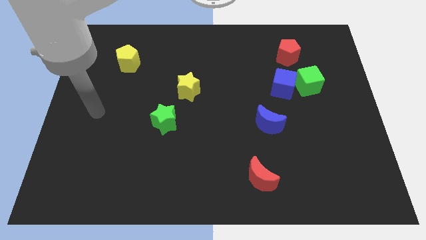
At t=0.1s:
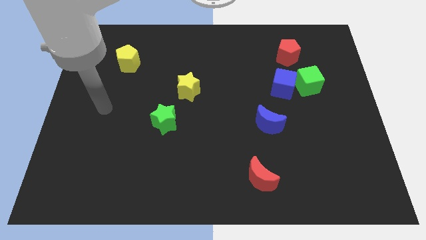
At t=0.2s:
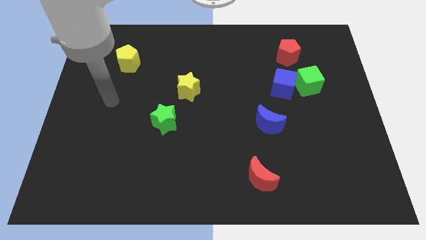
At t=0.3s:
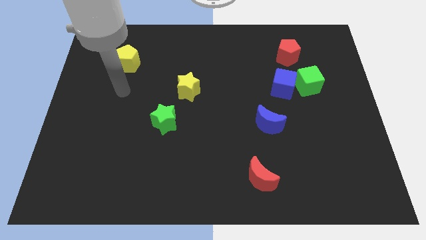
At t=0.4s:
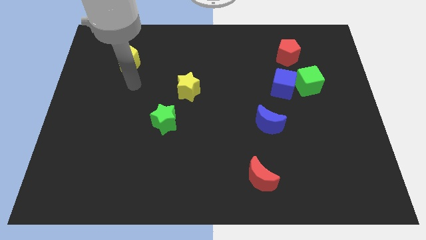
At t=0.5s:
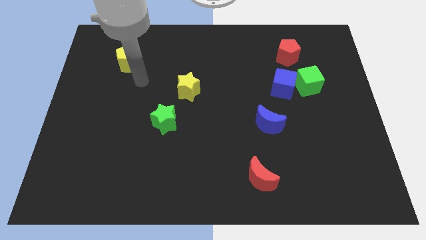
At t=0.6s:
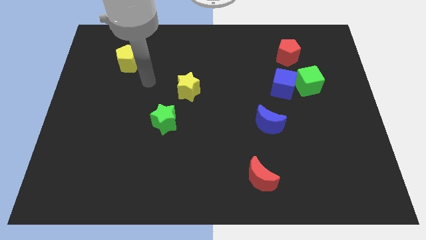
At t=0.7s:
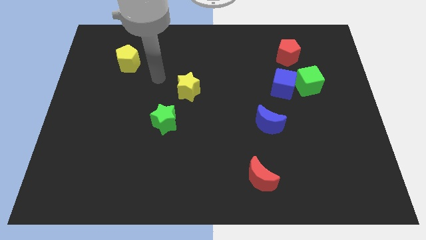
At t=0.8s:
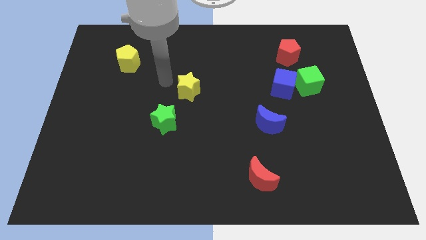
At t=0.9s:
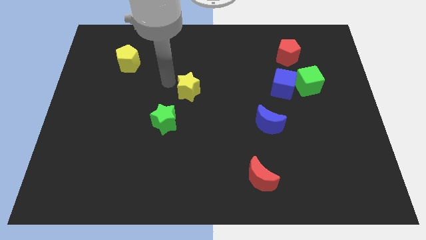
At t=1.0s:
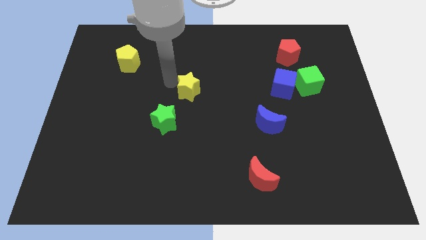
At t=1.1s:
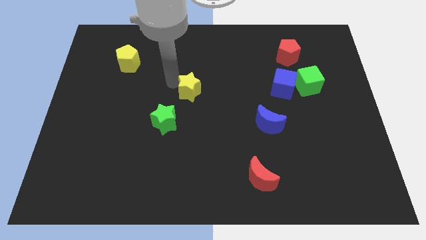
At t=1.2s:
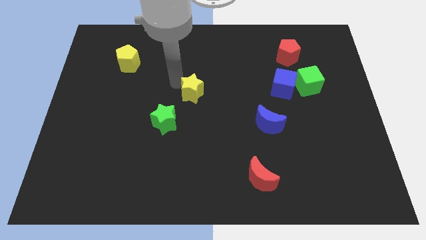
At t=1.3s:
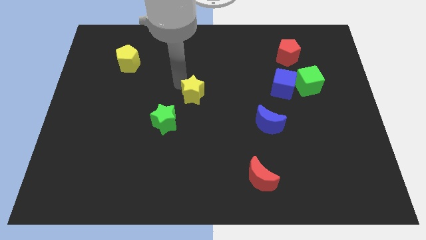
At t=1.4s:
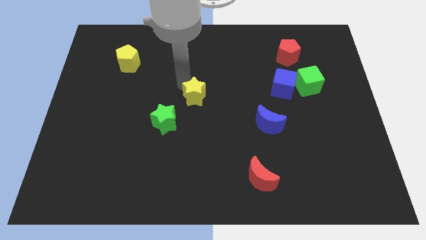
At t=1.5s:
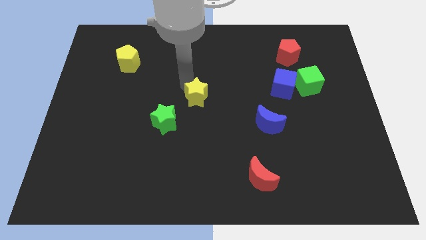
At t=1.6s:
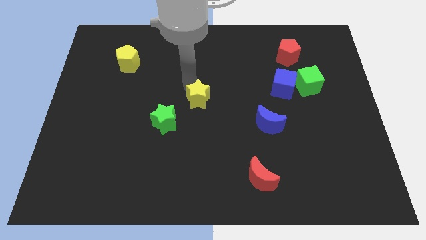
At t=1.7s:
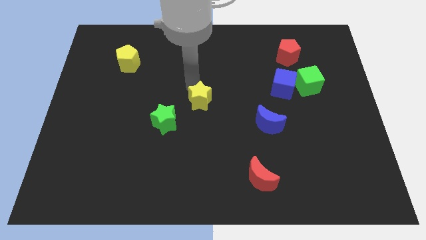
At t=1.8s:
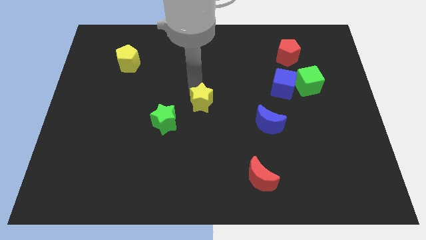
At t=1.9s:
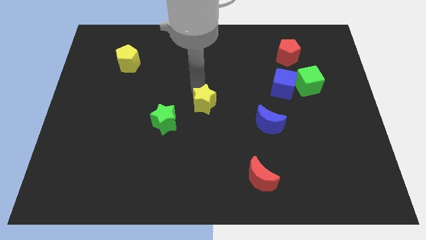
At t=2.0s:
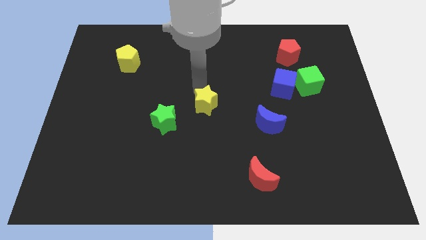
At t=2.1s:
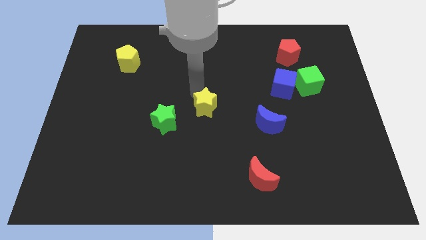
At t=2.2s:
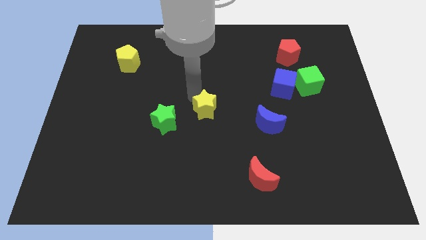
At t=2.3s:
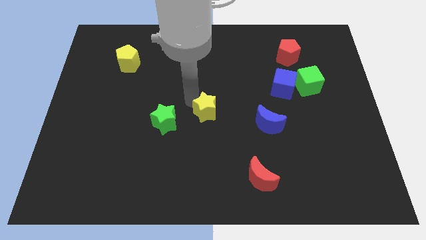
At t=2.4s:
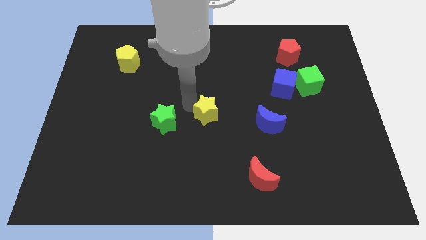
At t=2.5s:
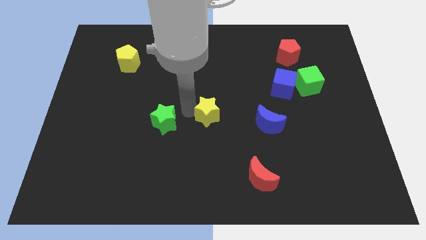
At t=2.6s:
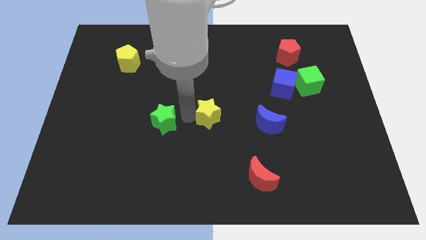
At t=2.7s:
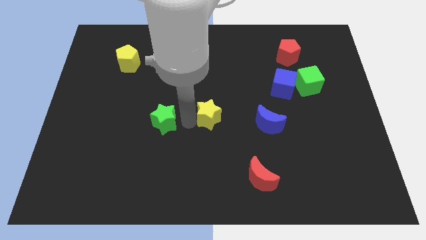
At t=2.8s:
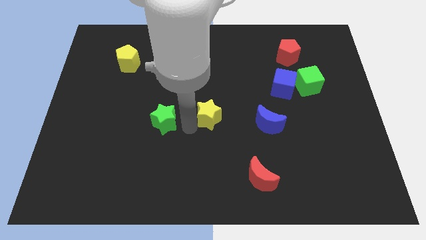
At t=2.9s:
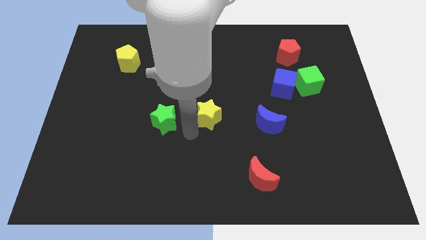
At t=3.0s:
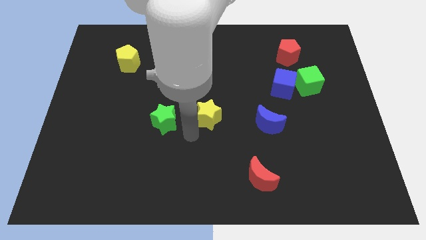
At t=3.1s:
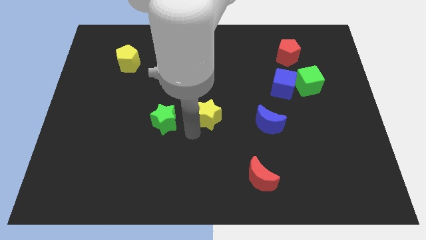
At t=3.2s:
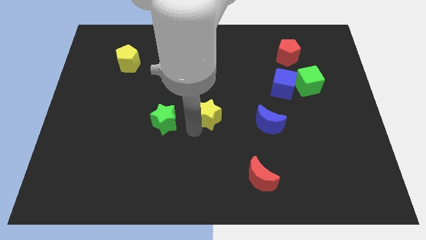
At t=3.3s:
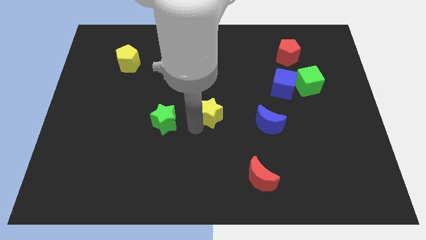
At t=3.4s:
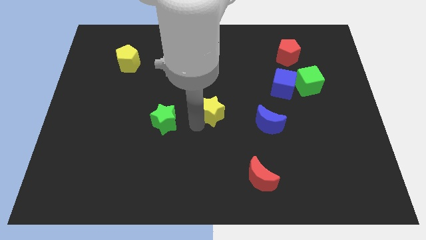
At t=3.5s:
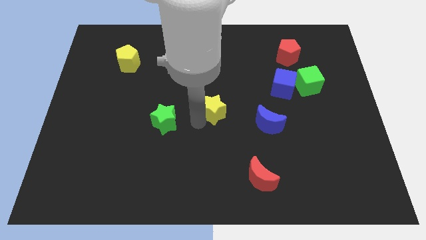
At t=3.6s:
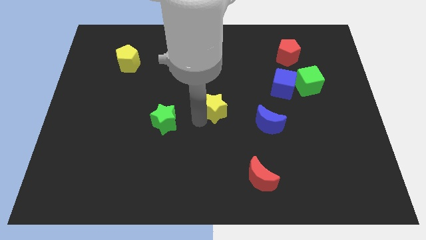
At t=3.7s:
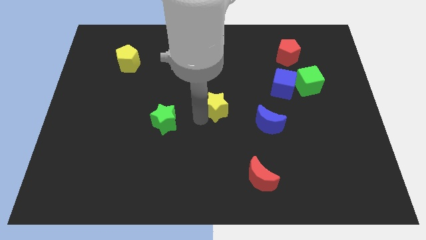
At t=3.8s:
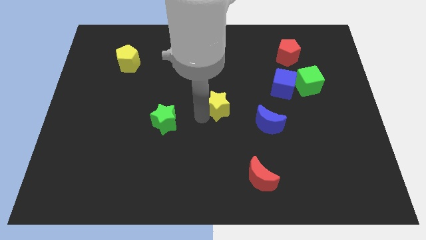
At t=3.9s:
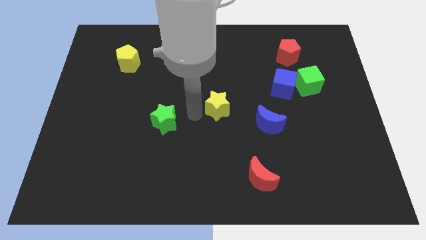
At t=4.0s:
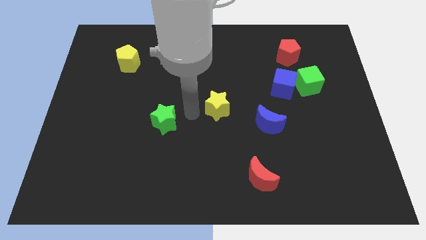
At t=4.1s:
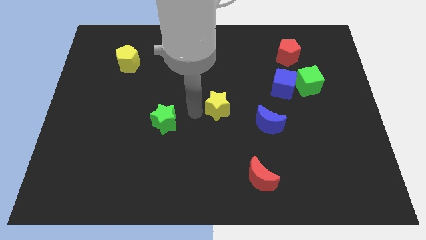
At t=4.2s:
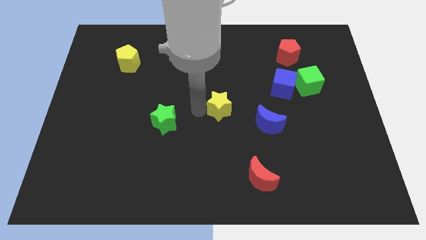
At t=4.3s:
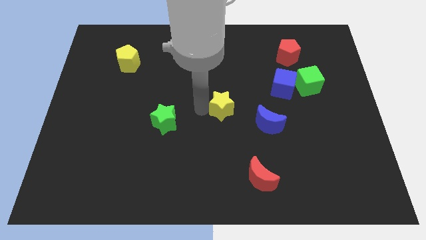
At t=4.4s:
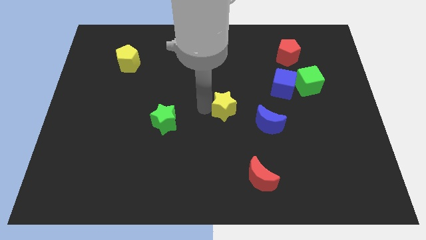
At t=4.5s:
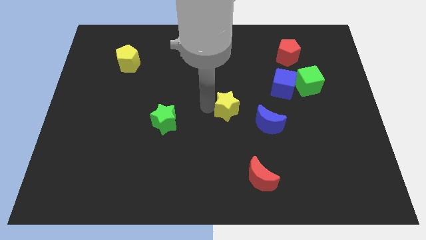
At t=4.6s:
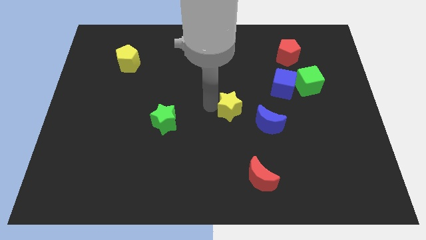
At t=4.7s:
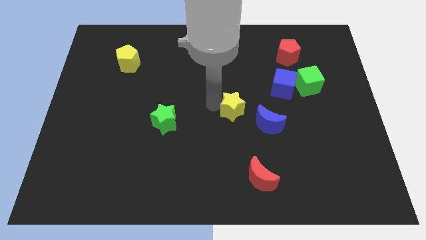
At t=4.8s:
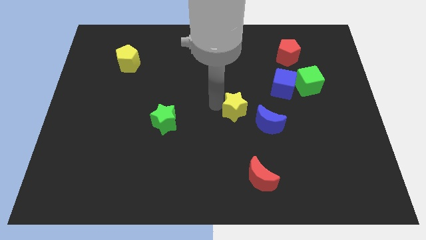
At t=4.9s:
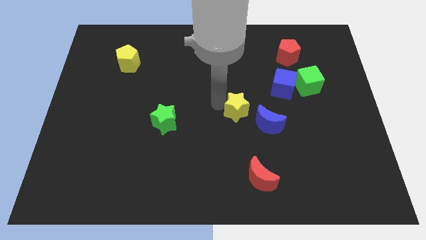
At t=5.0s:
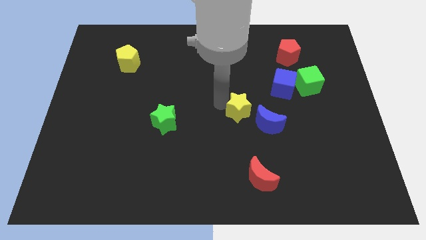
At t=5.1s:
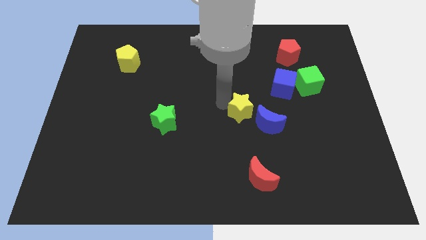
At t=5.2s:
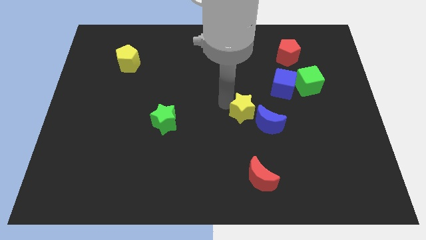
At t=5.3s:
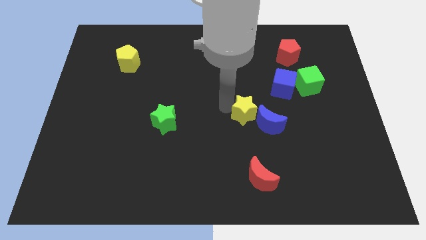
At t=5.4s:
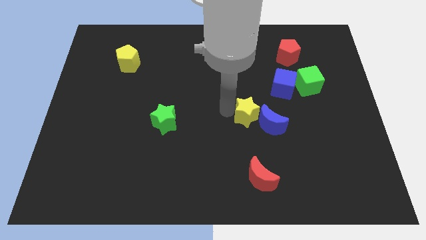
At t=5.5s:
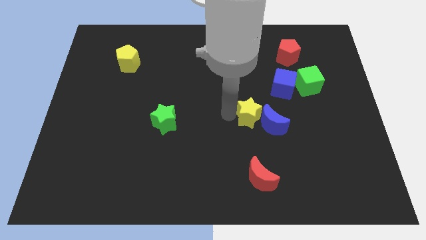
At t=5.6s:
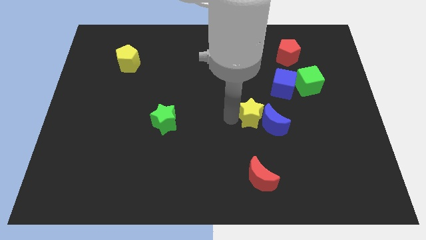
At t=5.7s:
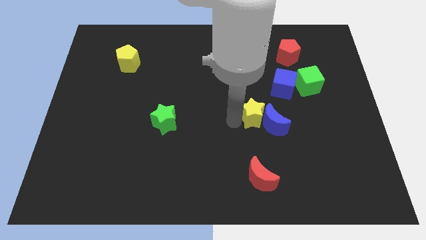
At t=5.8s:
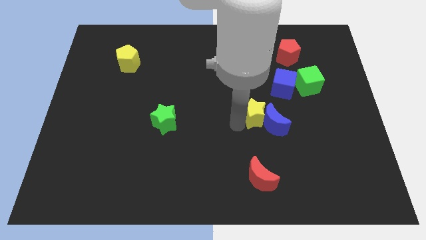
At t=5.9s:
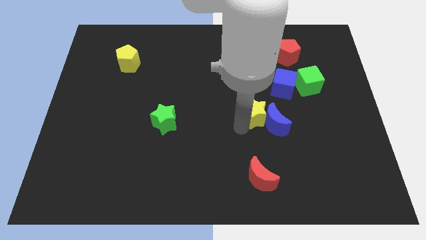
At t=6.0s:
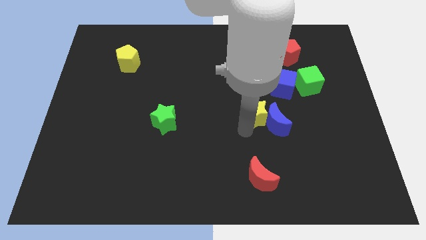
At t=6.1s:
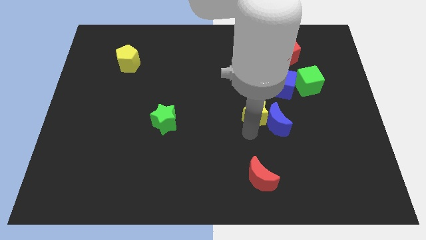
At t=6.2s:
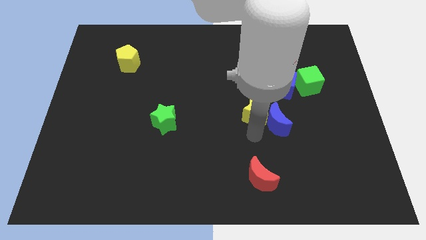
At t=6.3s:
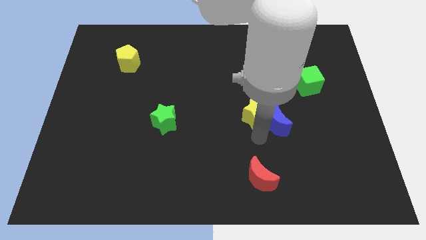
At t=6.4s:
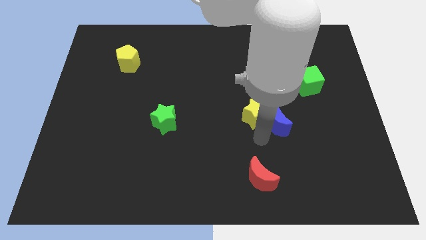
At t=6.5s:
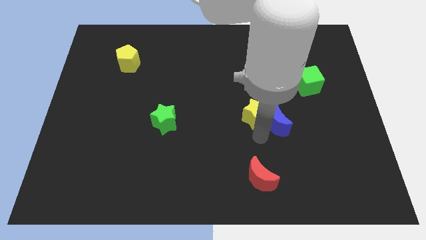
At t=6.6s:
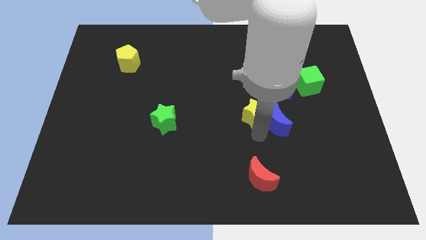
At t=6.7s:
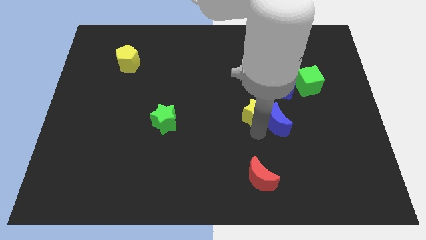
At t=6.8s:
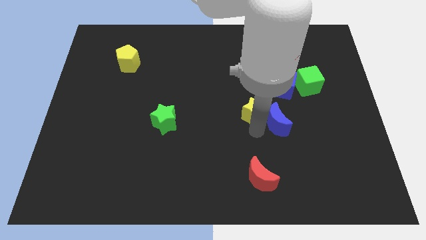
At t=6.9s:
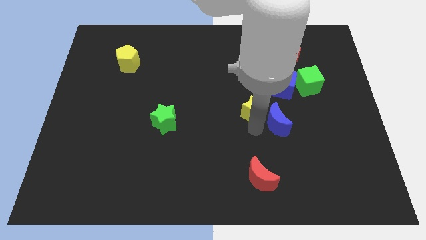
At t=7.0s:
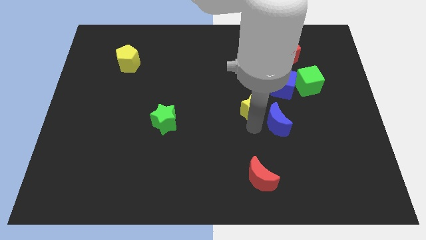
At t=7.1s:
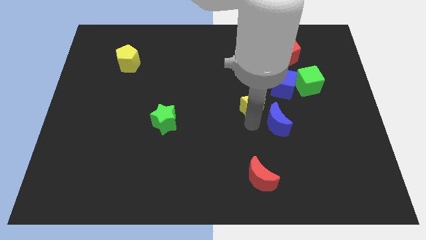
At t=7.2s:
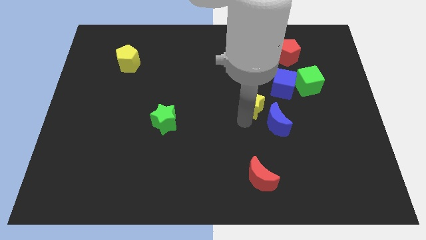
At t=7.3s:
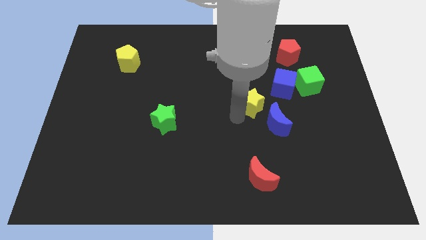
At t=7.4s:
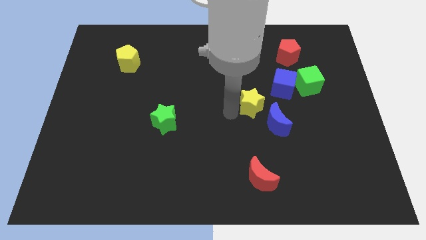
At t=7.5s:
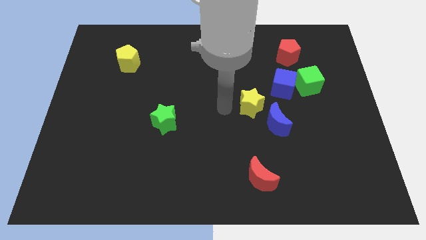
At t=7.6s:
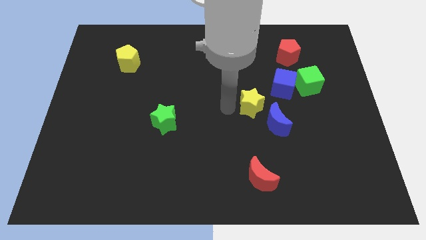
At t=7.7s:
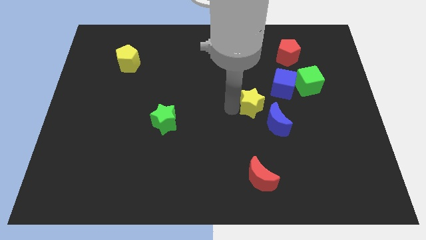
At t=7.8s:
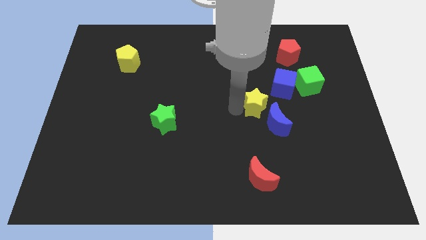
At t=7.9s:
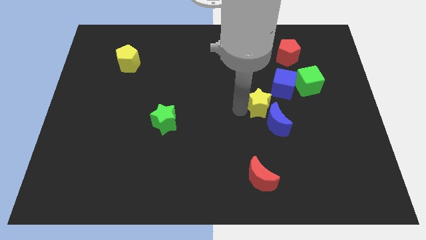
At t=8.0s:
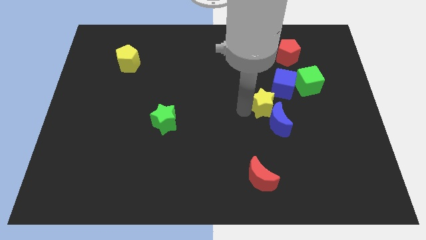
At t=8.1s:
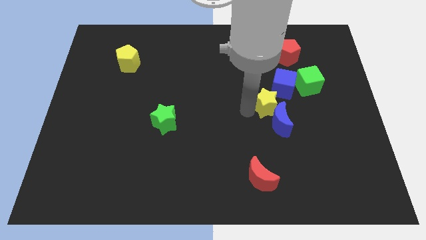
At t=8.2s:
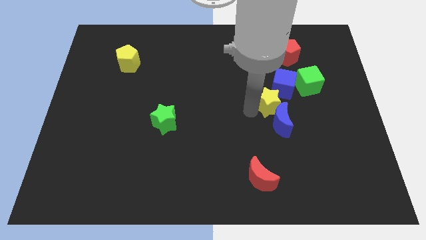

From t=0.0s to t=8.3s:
slide the yellow star to the bottom left side of the green cube
